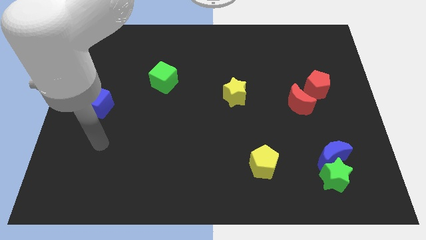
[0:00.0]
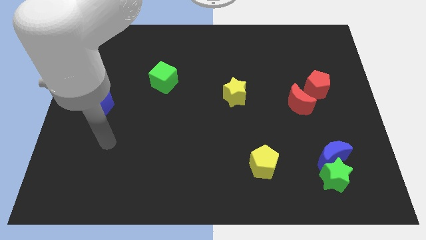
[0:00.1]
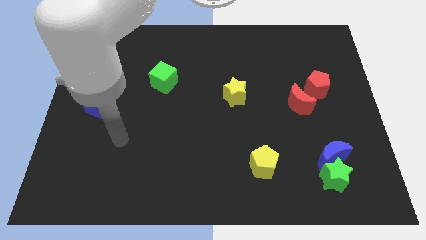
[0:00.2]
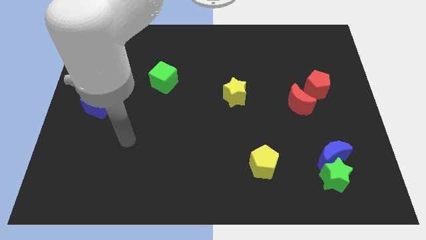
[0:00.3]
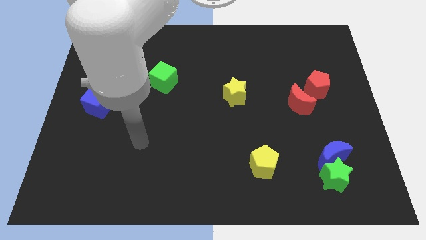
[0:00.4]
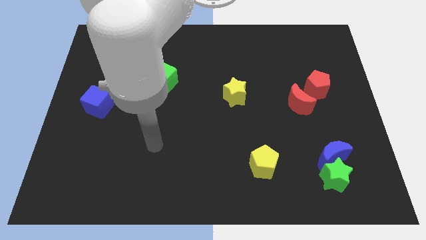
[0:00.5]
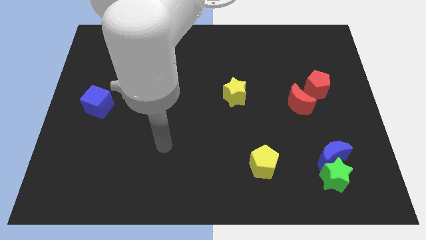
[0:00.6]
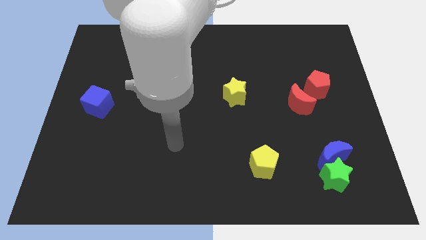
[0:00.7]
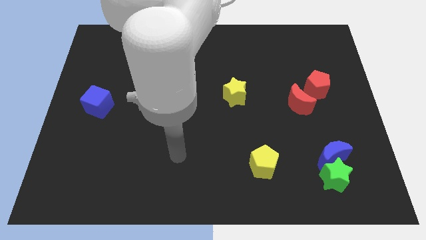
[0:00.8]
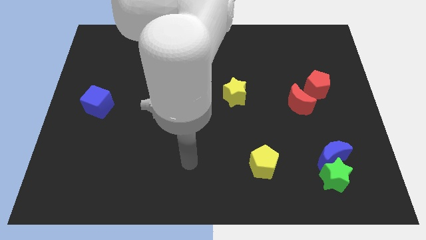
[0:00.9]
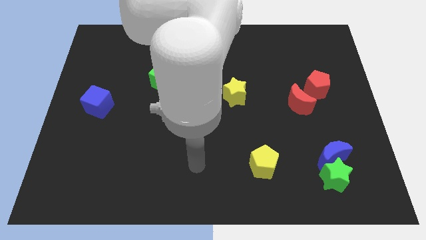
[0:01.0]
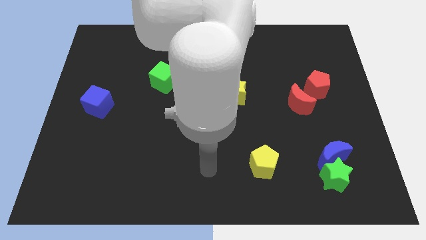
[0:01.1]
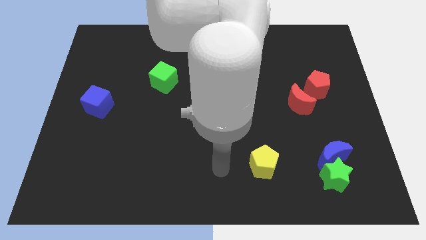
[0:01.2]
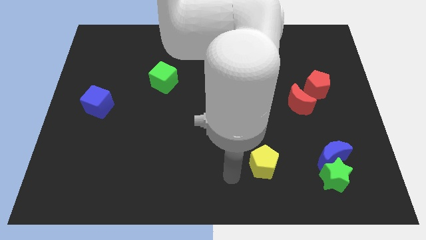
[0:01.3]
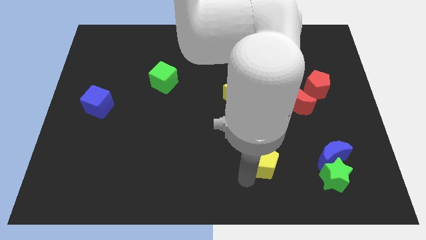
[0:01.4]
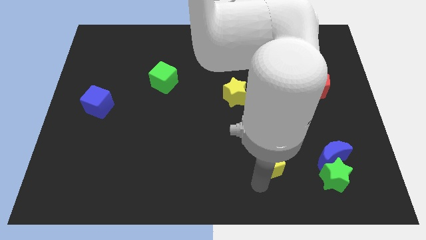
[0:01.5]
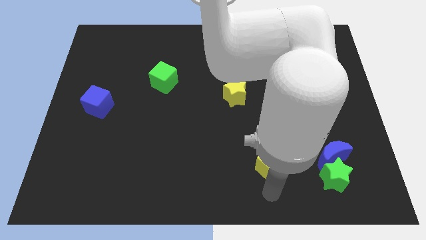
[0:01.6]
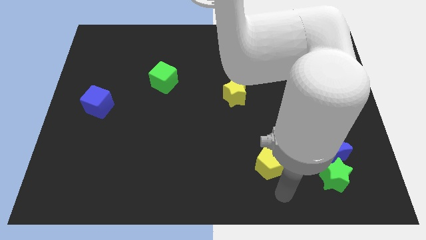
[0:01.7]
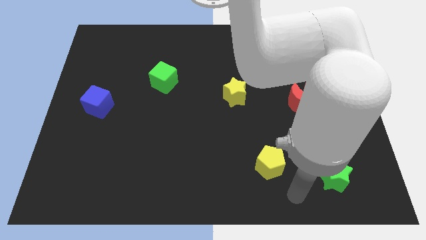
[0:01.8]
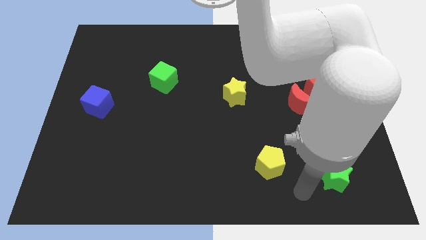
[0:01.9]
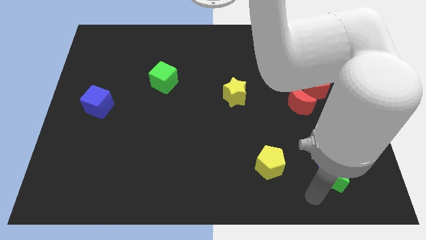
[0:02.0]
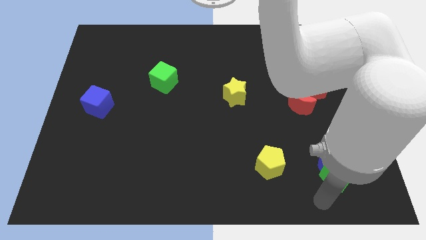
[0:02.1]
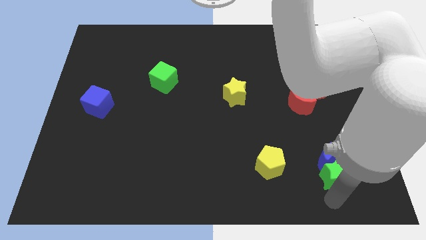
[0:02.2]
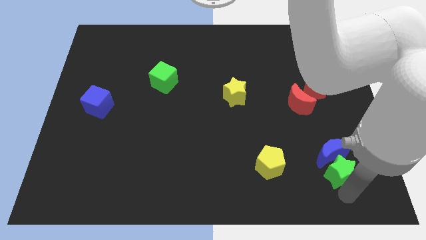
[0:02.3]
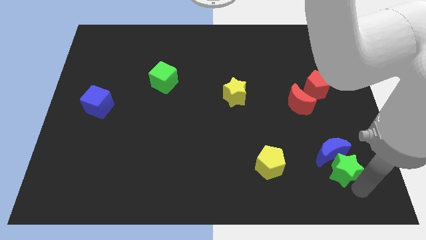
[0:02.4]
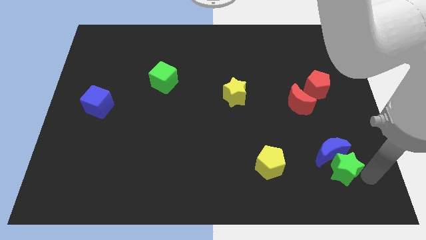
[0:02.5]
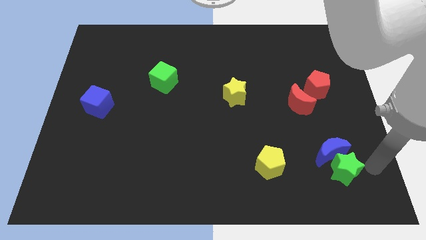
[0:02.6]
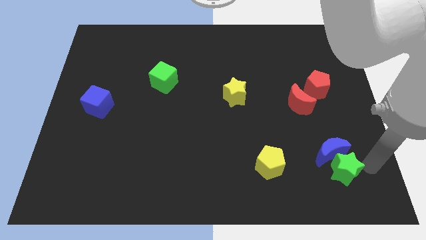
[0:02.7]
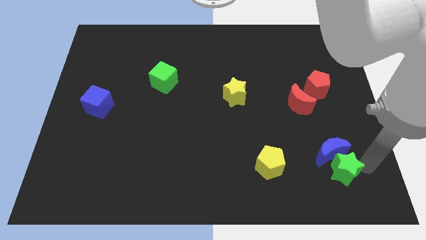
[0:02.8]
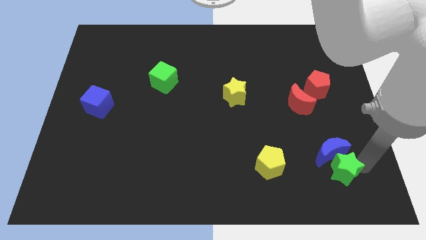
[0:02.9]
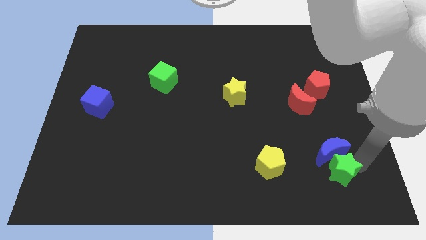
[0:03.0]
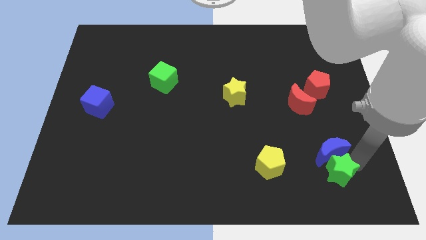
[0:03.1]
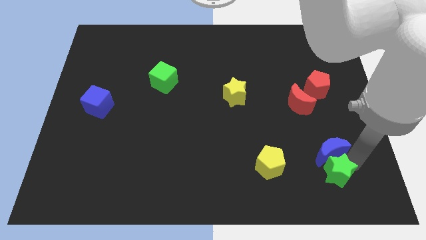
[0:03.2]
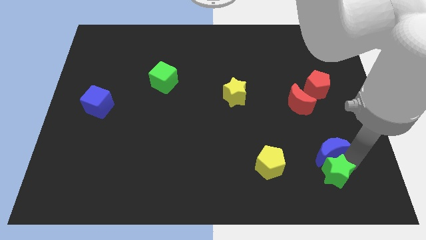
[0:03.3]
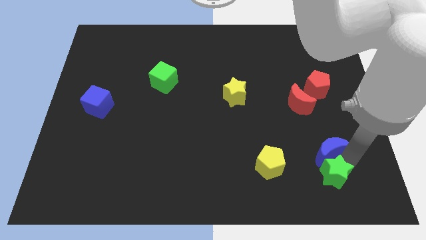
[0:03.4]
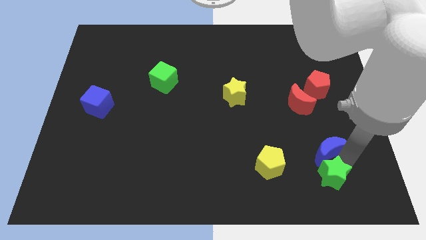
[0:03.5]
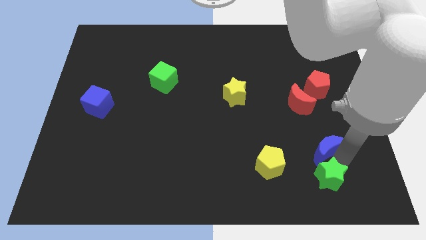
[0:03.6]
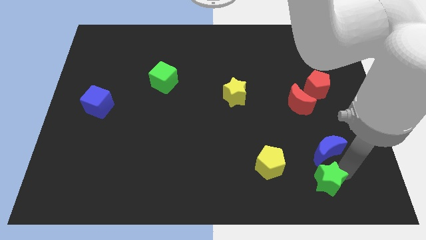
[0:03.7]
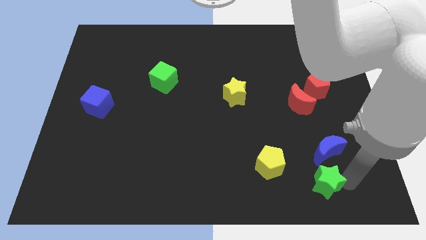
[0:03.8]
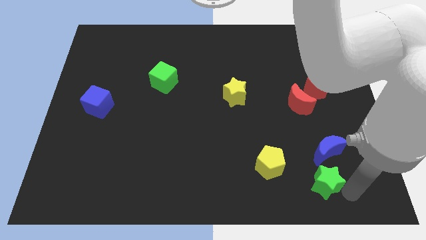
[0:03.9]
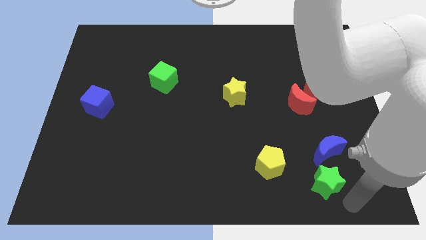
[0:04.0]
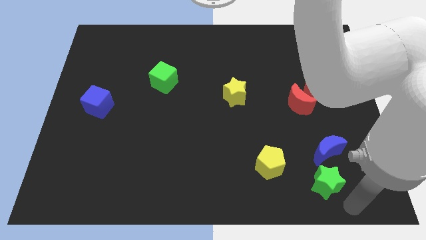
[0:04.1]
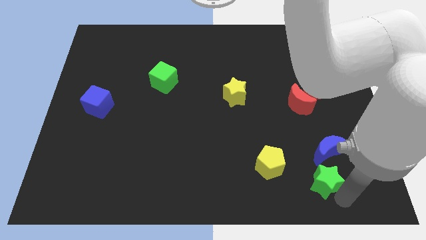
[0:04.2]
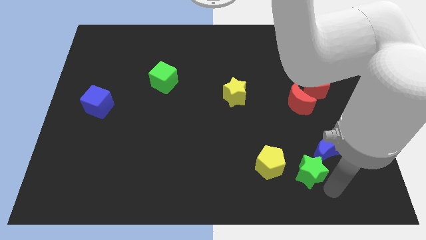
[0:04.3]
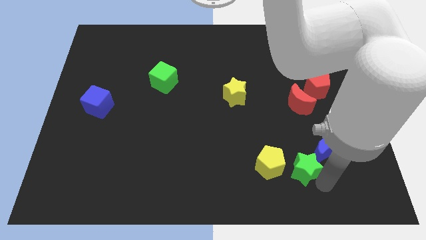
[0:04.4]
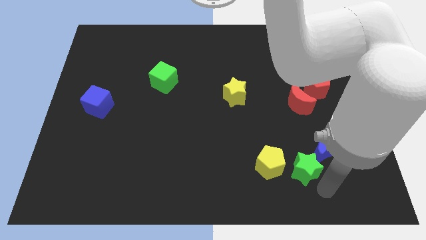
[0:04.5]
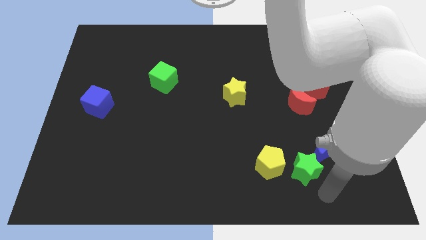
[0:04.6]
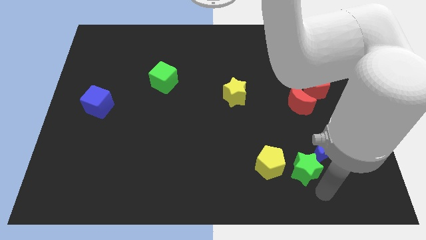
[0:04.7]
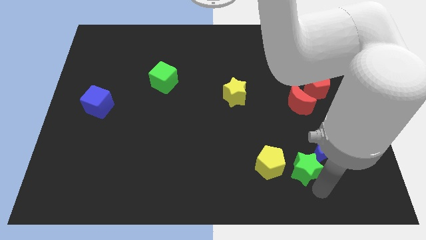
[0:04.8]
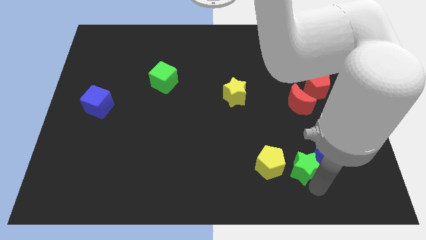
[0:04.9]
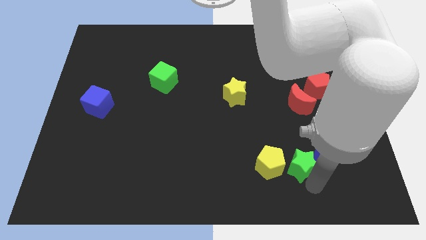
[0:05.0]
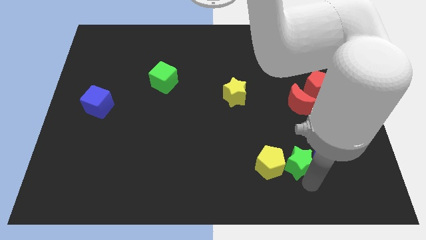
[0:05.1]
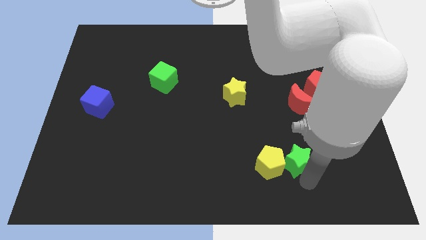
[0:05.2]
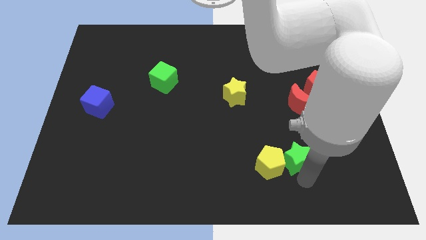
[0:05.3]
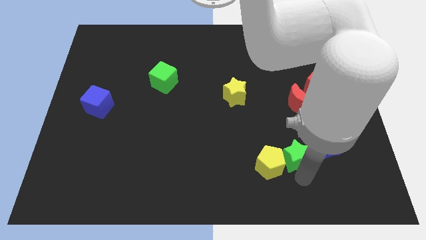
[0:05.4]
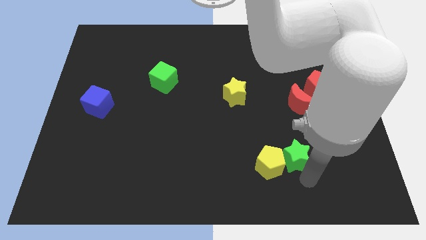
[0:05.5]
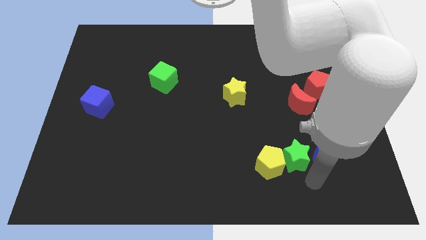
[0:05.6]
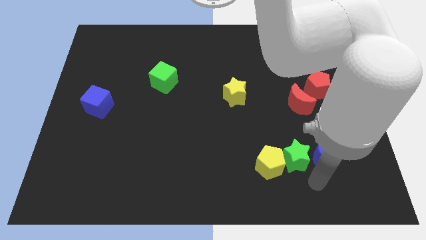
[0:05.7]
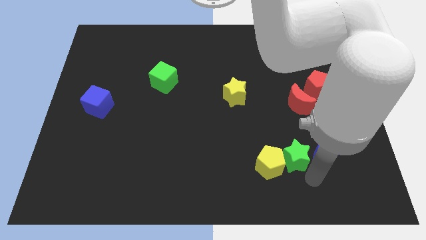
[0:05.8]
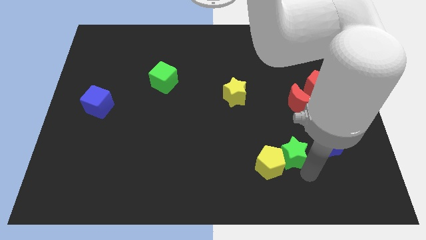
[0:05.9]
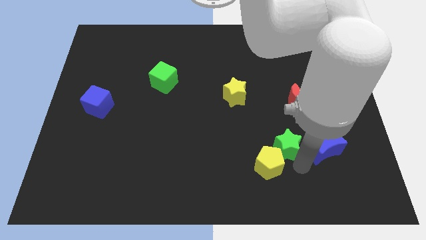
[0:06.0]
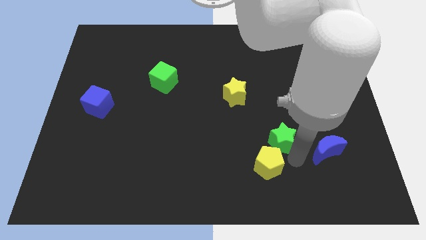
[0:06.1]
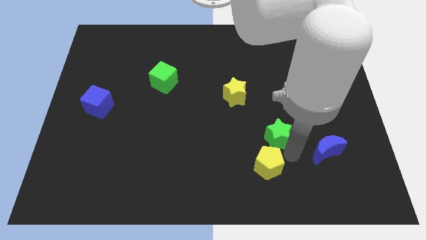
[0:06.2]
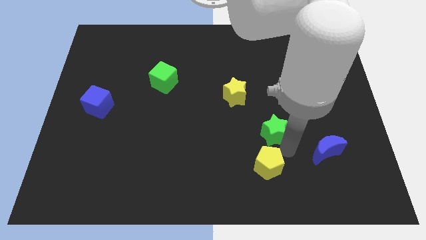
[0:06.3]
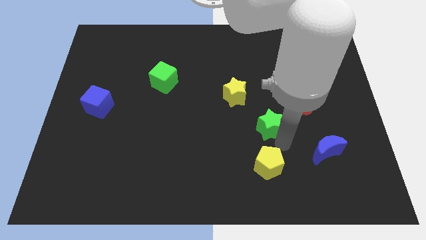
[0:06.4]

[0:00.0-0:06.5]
push the green star diagonally down and to the right of the yellow star

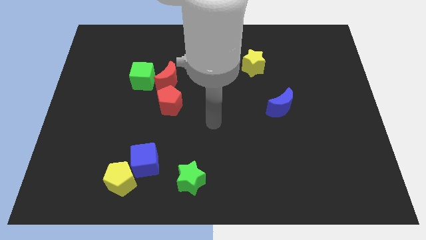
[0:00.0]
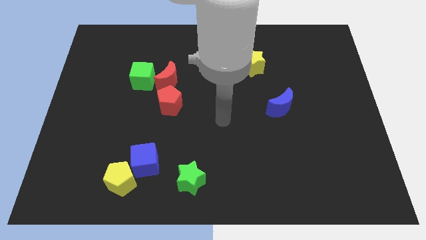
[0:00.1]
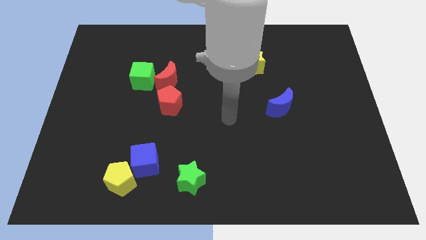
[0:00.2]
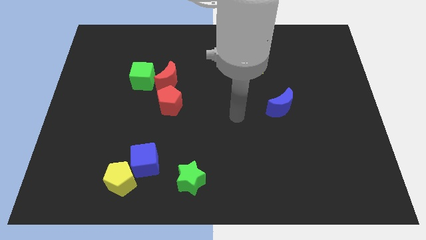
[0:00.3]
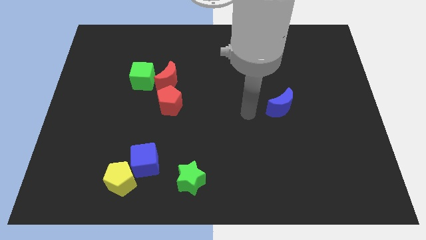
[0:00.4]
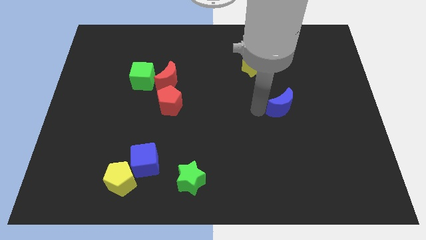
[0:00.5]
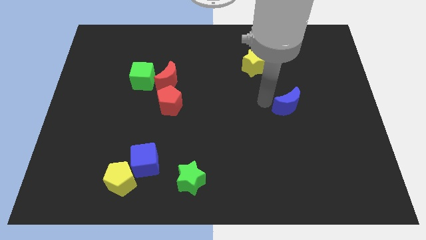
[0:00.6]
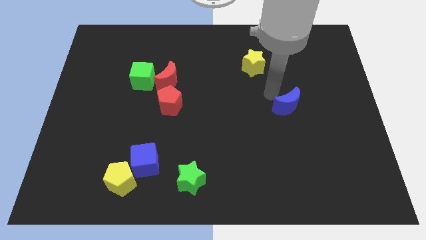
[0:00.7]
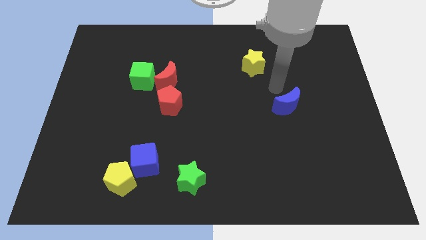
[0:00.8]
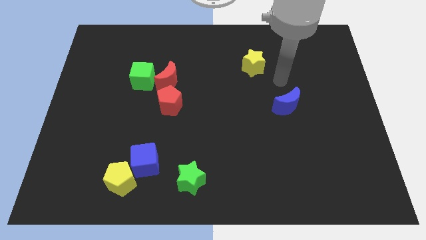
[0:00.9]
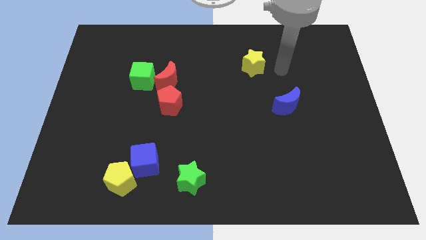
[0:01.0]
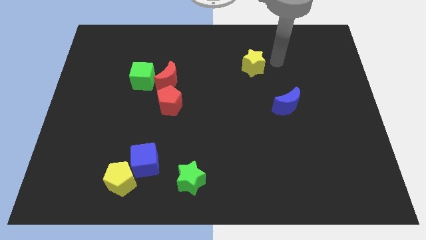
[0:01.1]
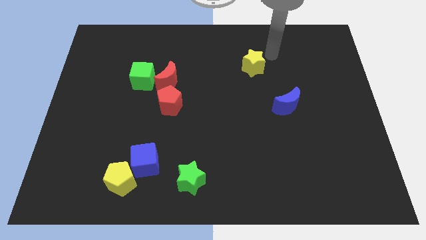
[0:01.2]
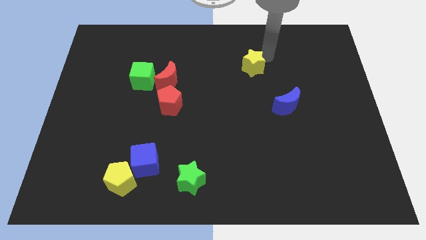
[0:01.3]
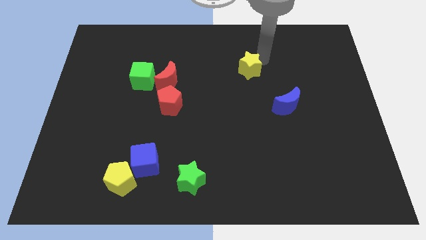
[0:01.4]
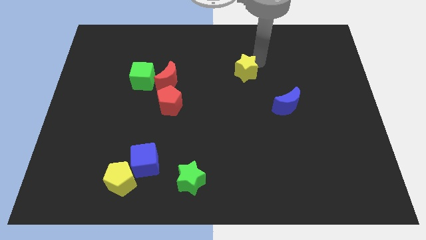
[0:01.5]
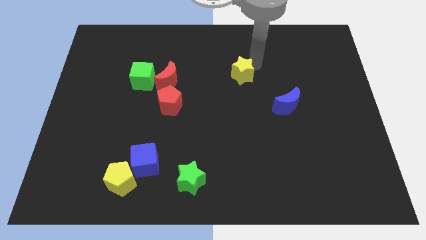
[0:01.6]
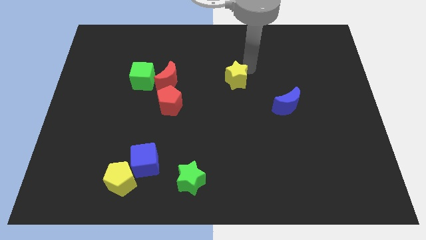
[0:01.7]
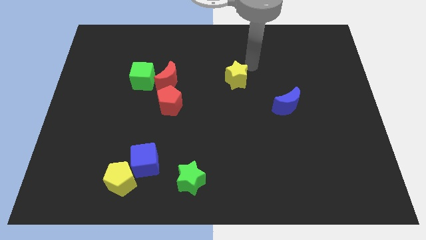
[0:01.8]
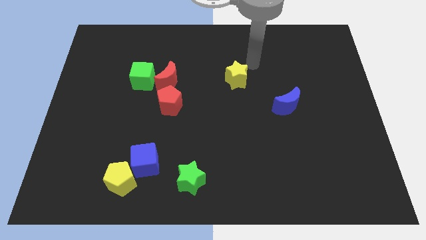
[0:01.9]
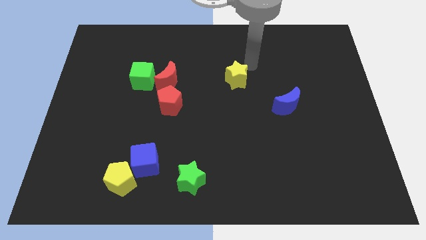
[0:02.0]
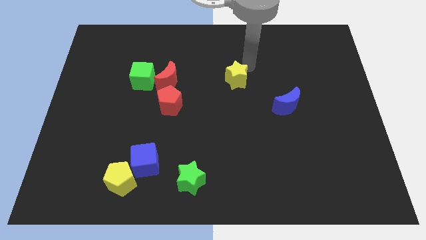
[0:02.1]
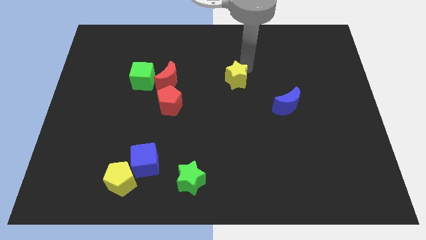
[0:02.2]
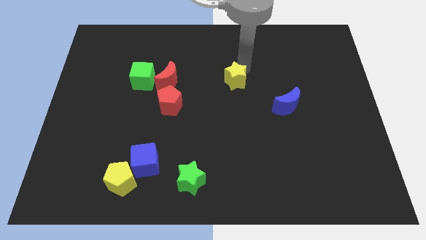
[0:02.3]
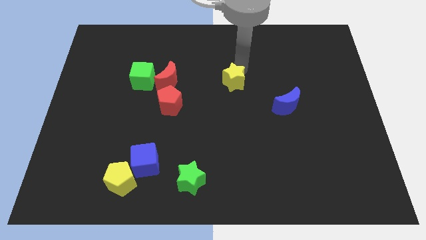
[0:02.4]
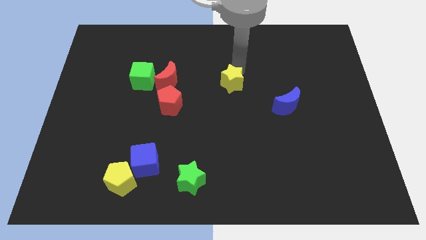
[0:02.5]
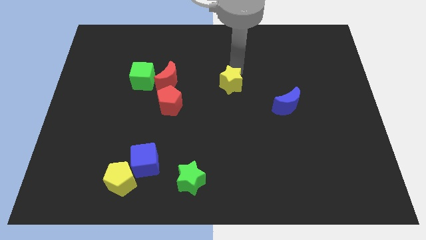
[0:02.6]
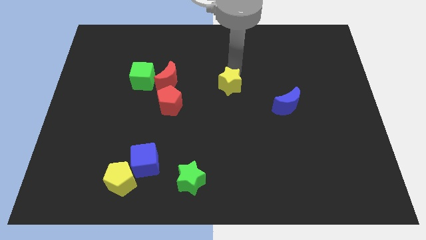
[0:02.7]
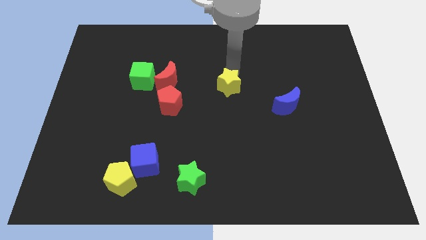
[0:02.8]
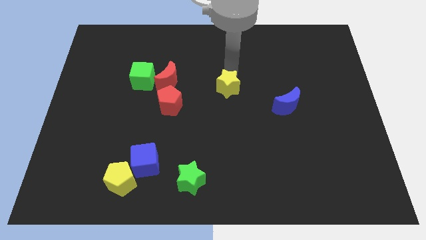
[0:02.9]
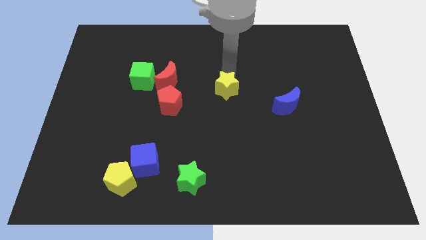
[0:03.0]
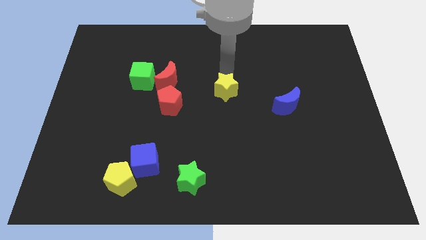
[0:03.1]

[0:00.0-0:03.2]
put the yellow star to the right side of the red pentagon
